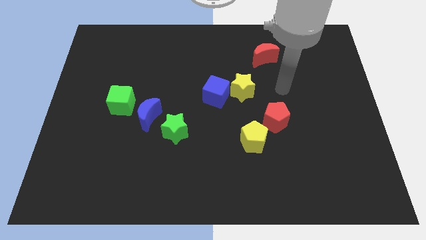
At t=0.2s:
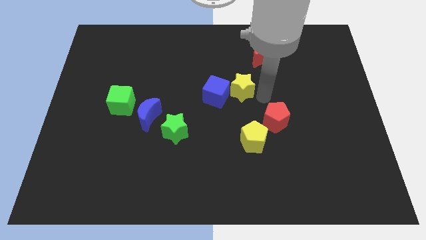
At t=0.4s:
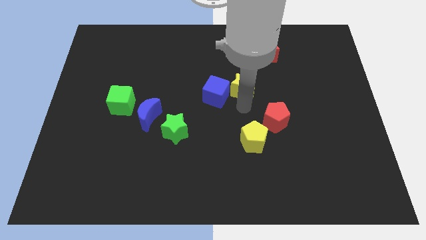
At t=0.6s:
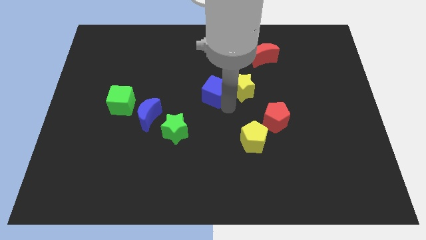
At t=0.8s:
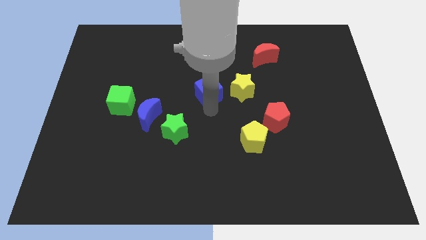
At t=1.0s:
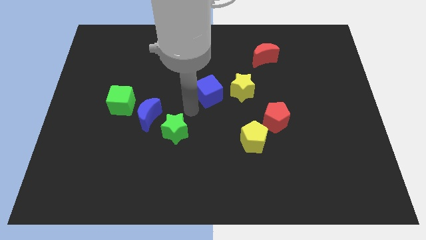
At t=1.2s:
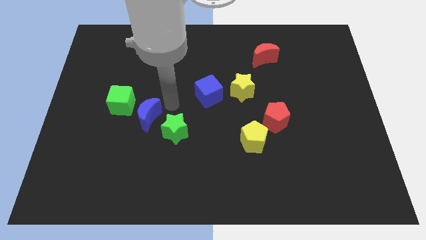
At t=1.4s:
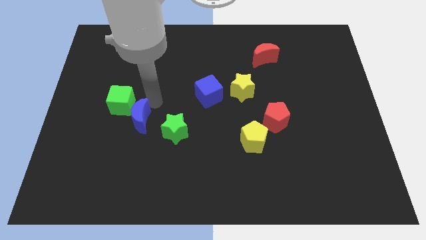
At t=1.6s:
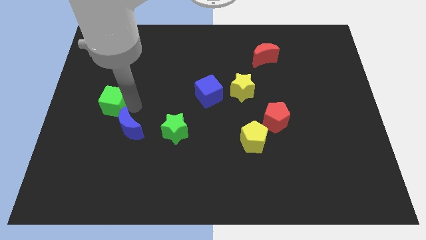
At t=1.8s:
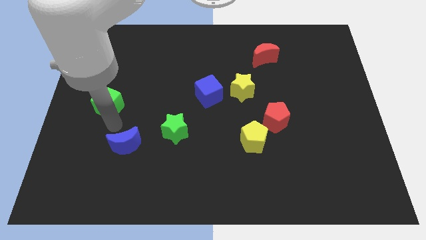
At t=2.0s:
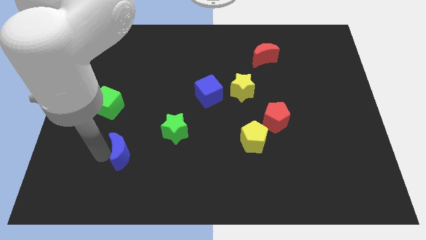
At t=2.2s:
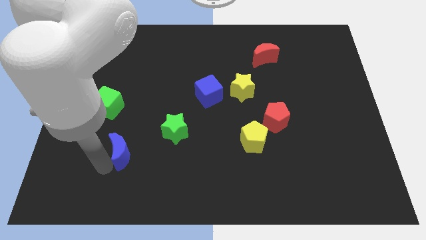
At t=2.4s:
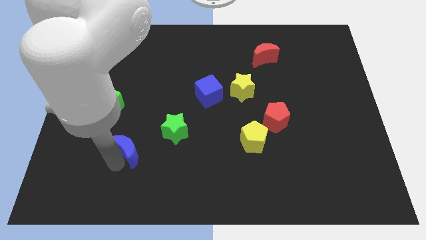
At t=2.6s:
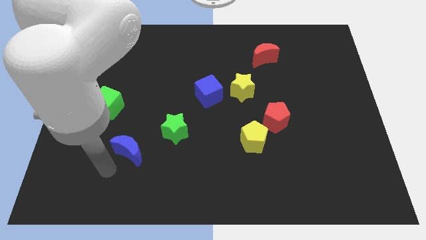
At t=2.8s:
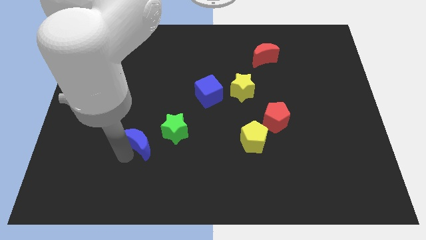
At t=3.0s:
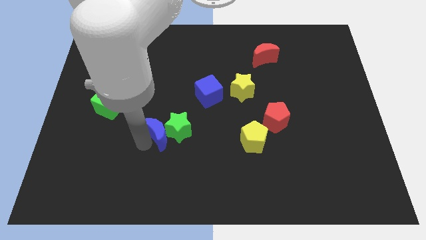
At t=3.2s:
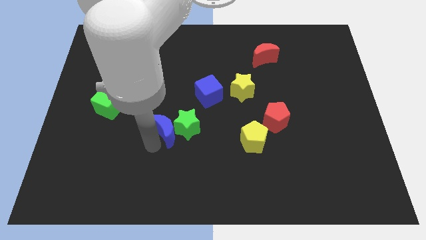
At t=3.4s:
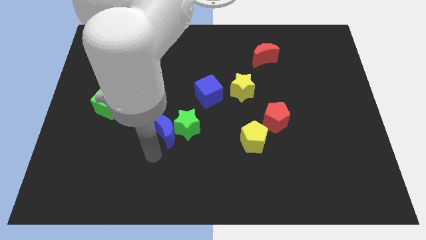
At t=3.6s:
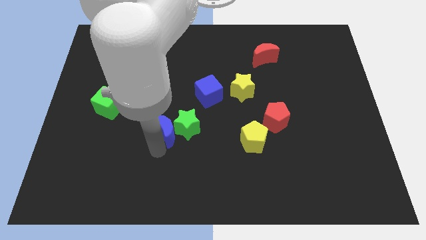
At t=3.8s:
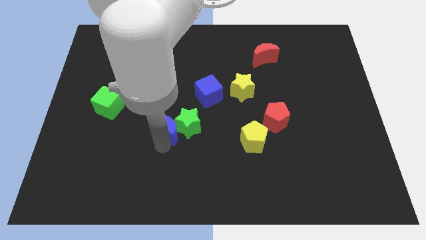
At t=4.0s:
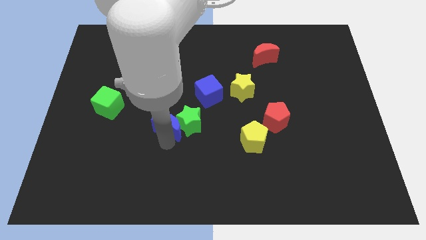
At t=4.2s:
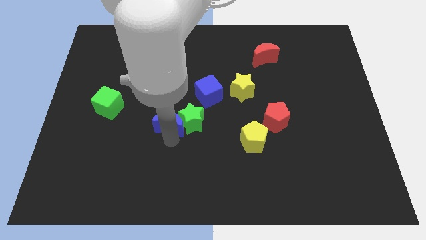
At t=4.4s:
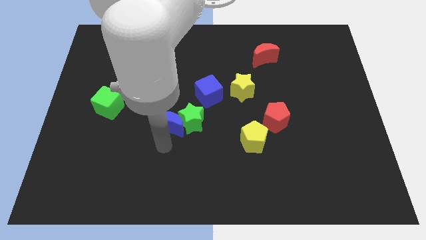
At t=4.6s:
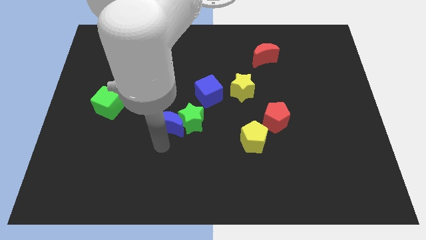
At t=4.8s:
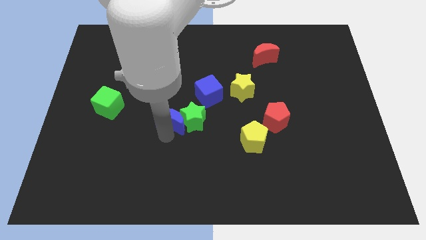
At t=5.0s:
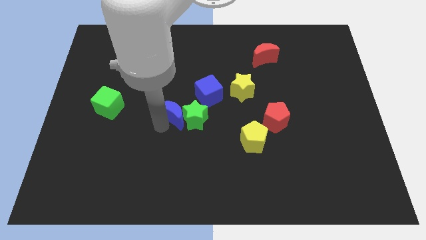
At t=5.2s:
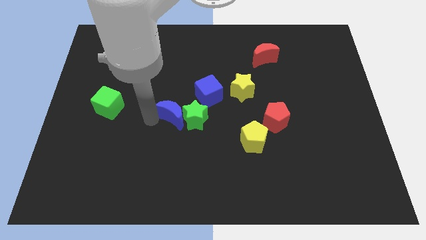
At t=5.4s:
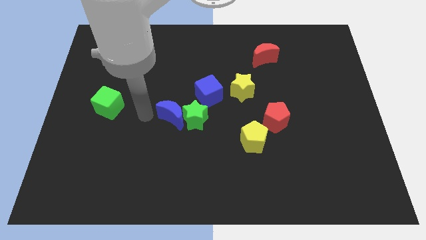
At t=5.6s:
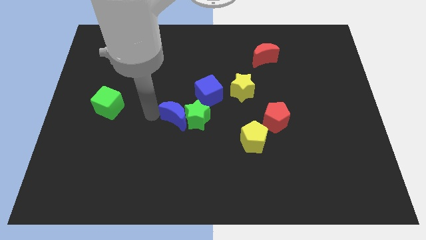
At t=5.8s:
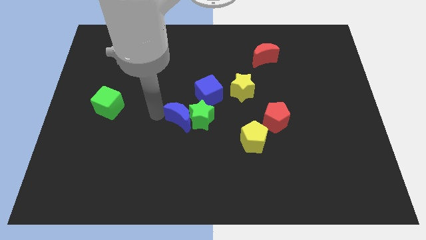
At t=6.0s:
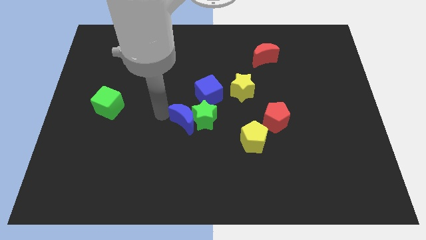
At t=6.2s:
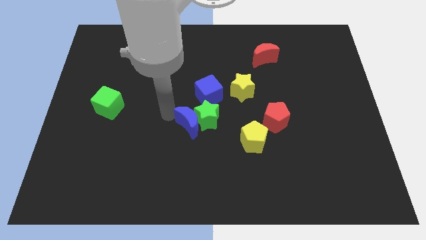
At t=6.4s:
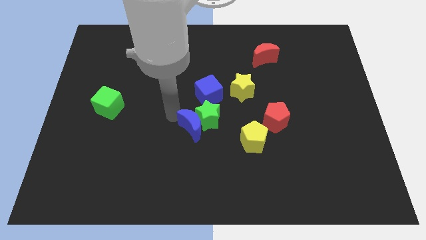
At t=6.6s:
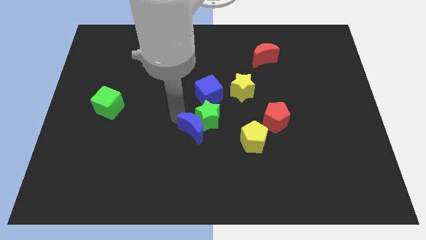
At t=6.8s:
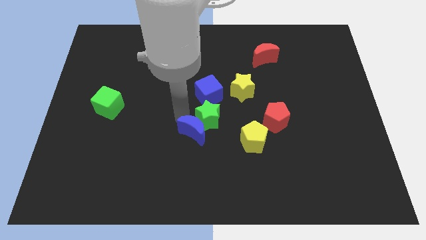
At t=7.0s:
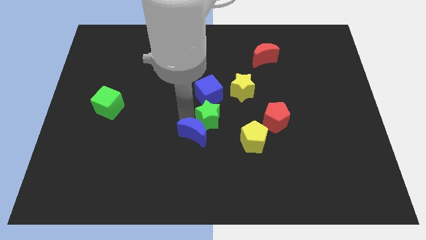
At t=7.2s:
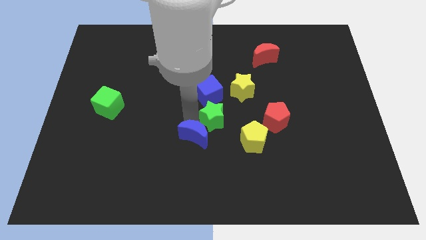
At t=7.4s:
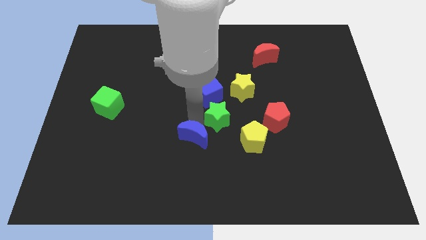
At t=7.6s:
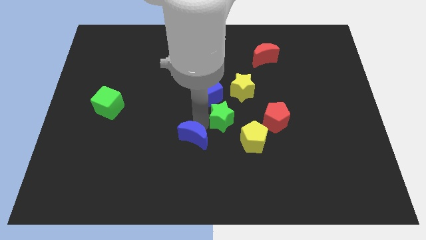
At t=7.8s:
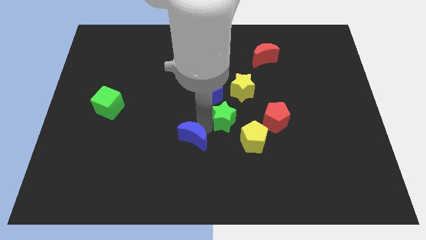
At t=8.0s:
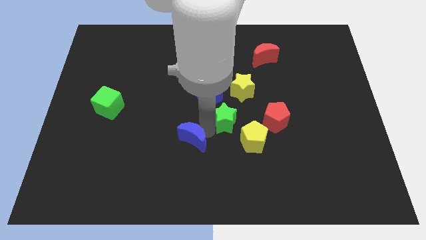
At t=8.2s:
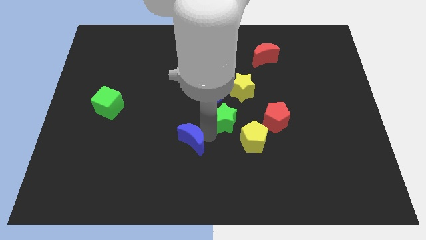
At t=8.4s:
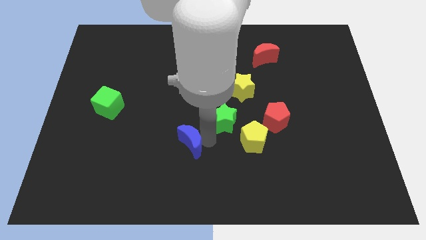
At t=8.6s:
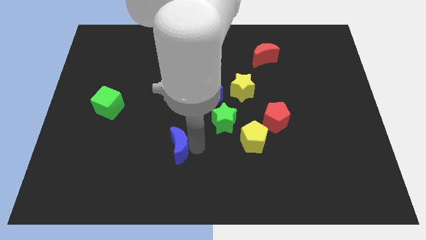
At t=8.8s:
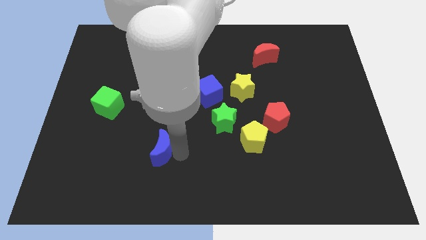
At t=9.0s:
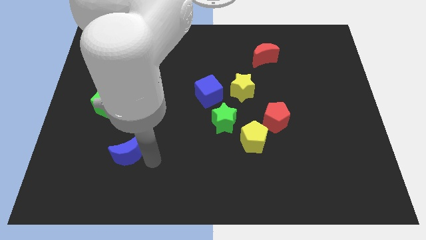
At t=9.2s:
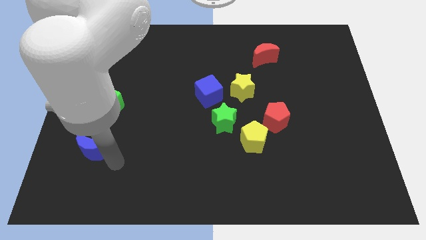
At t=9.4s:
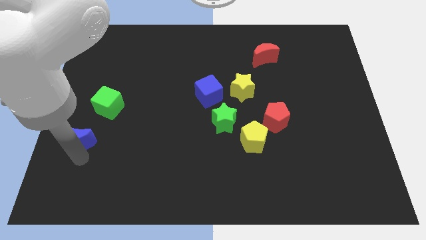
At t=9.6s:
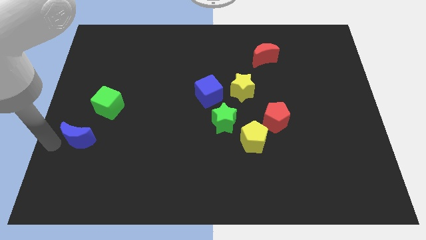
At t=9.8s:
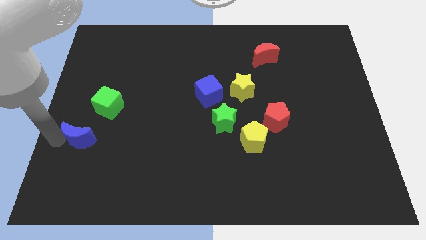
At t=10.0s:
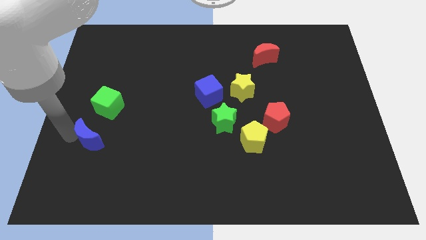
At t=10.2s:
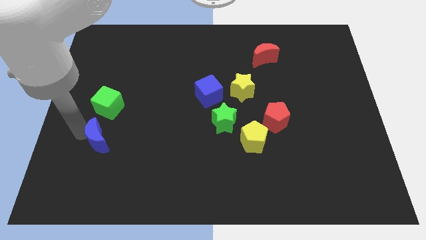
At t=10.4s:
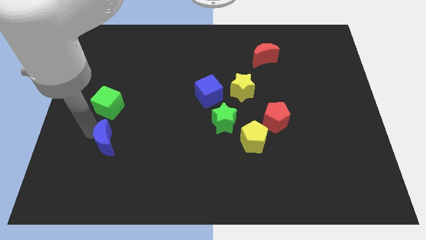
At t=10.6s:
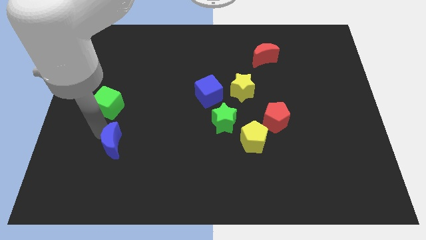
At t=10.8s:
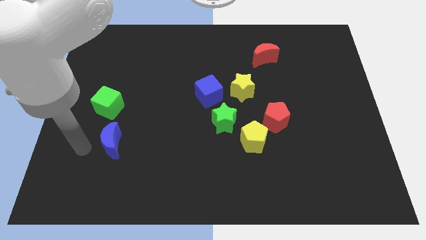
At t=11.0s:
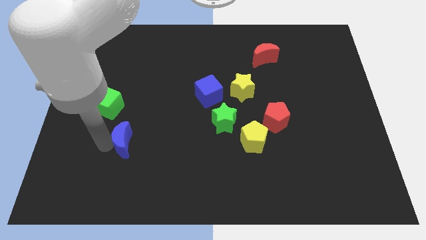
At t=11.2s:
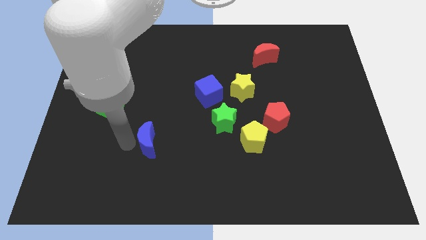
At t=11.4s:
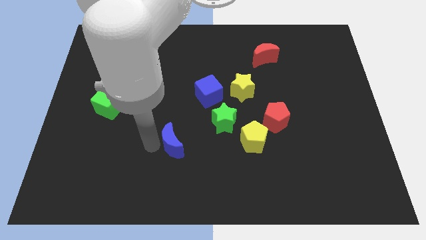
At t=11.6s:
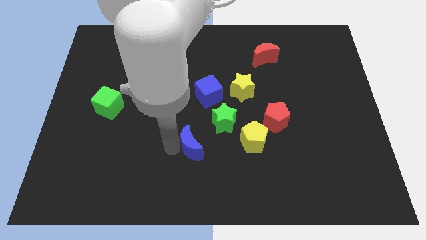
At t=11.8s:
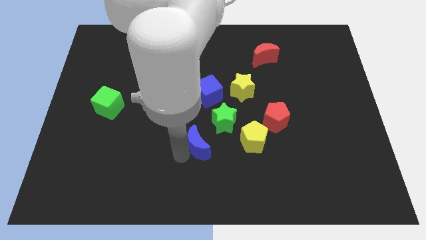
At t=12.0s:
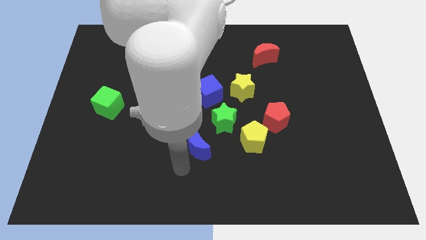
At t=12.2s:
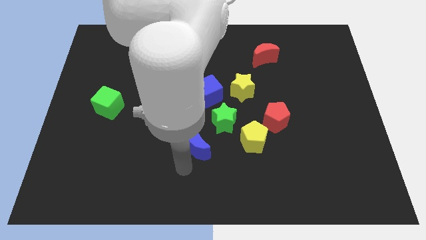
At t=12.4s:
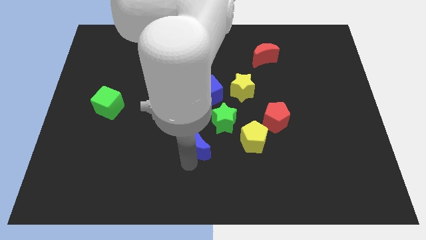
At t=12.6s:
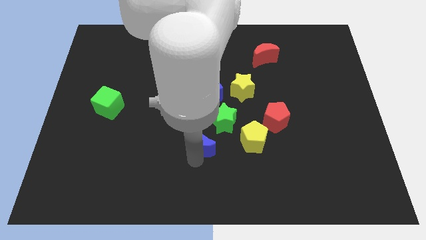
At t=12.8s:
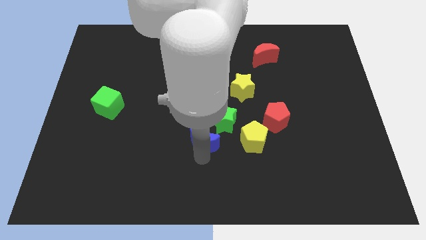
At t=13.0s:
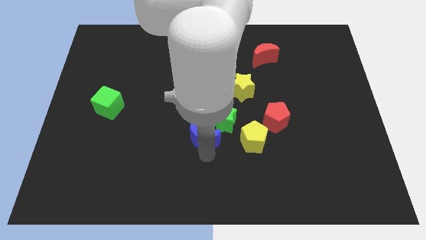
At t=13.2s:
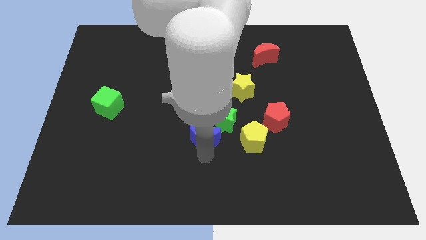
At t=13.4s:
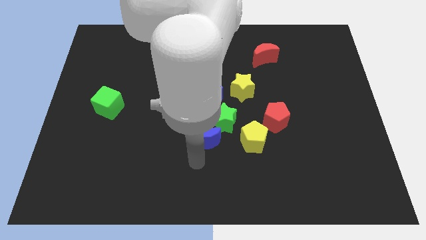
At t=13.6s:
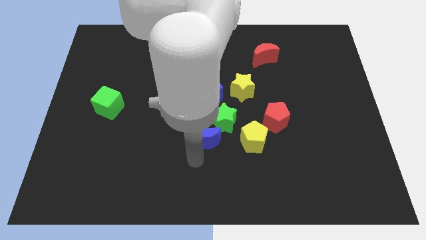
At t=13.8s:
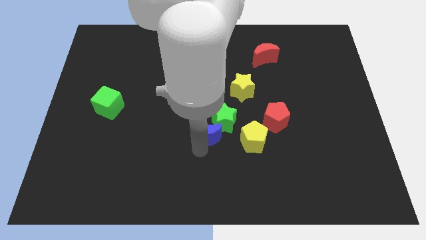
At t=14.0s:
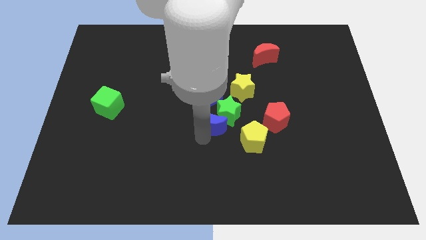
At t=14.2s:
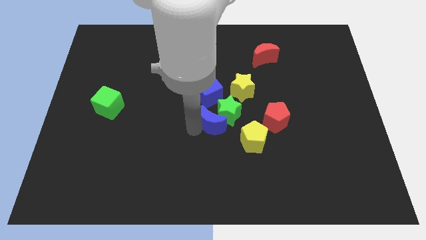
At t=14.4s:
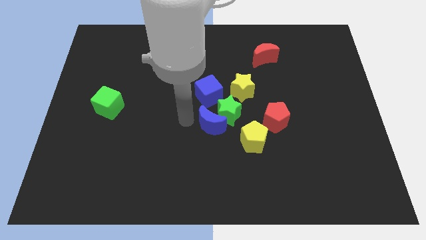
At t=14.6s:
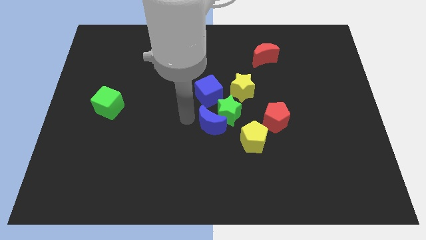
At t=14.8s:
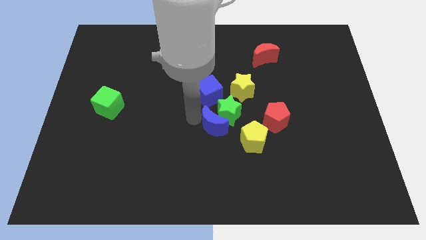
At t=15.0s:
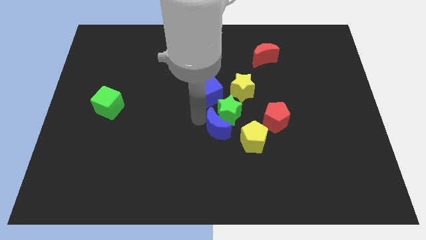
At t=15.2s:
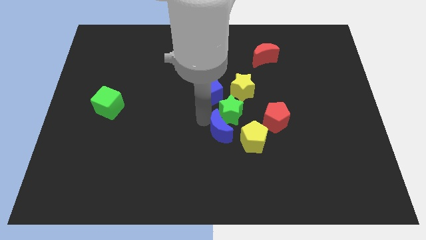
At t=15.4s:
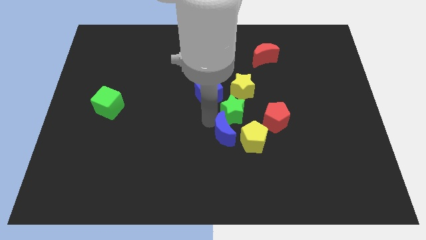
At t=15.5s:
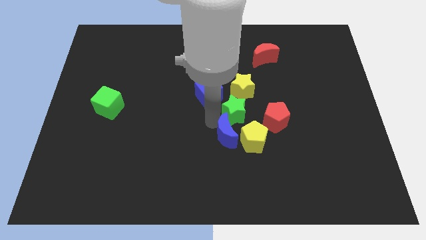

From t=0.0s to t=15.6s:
push the blue moon next to the yellow pentagon
